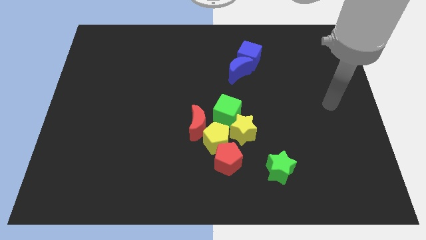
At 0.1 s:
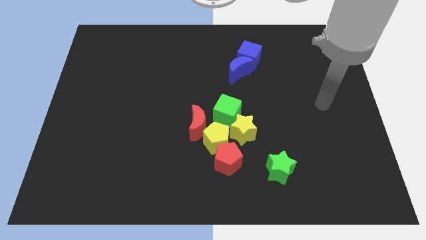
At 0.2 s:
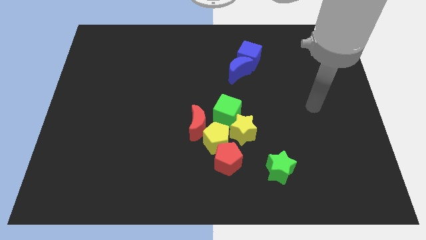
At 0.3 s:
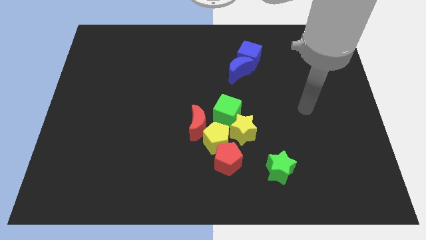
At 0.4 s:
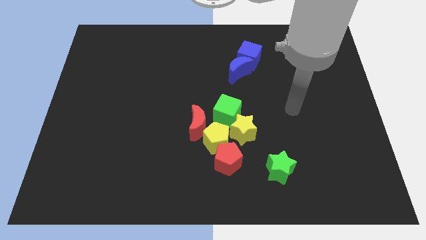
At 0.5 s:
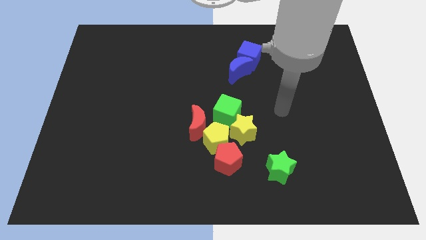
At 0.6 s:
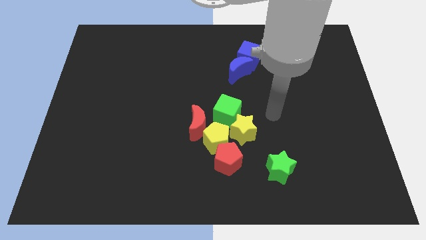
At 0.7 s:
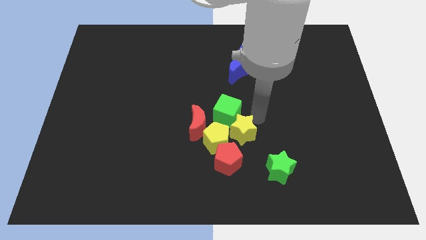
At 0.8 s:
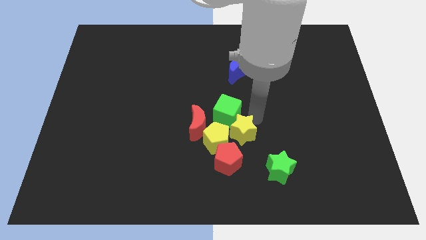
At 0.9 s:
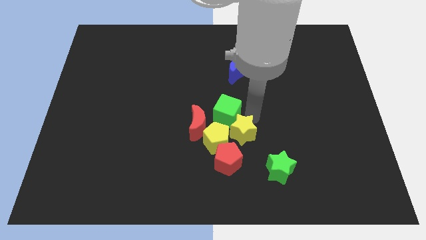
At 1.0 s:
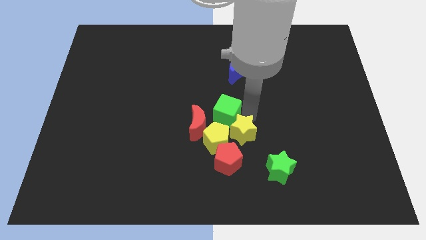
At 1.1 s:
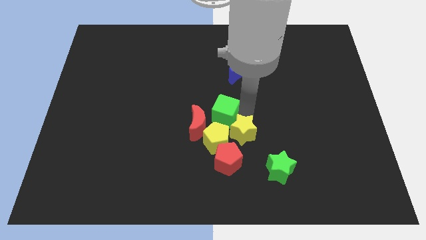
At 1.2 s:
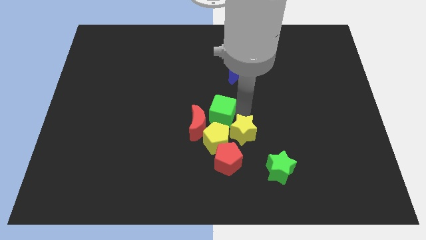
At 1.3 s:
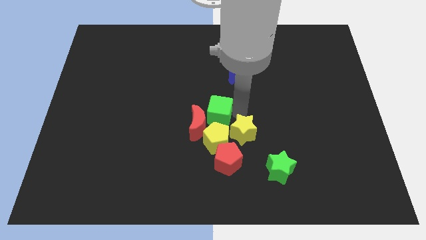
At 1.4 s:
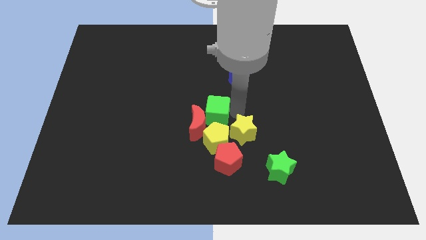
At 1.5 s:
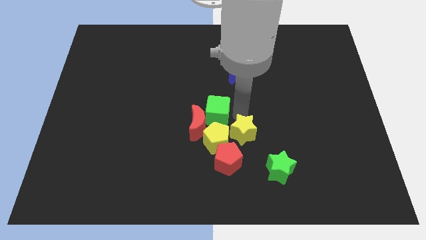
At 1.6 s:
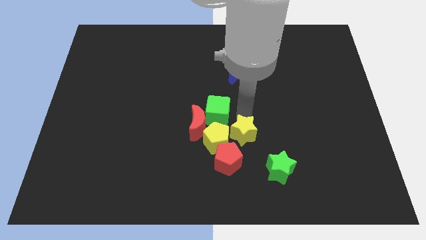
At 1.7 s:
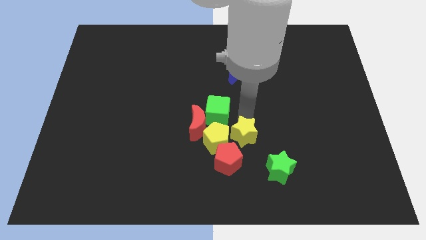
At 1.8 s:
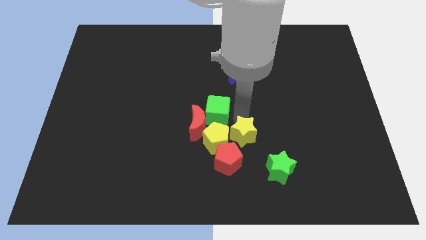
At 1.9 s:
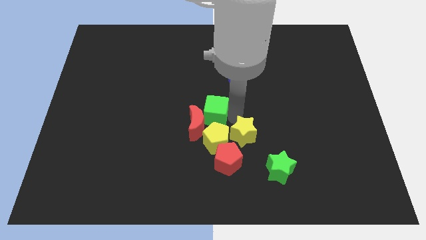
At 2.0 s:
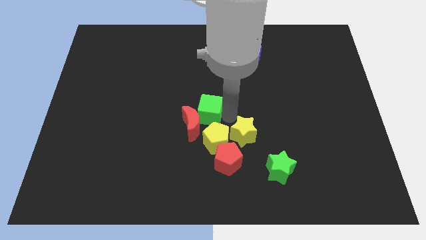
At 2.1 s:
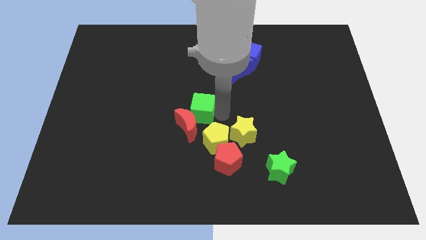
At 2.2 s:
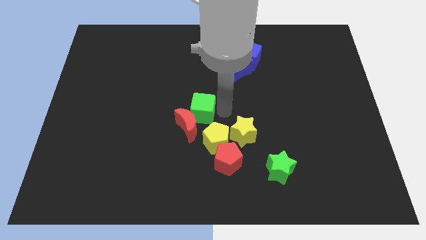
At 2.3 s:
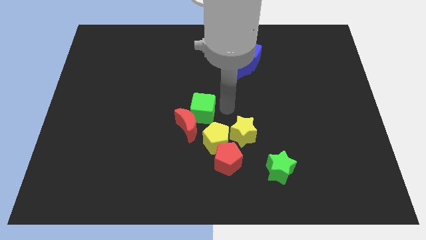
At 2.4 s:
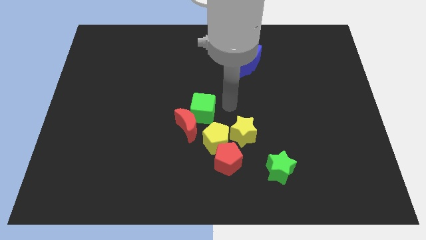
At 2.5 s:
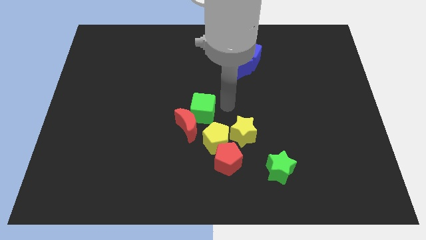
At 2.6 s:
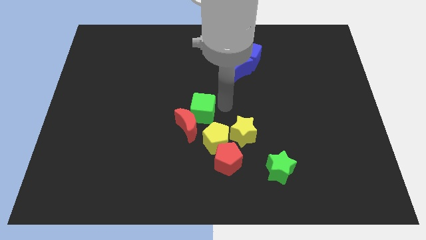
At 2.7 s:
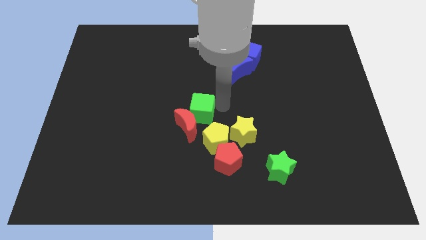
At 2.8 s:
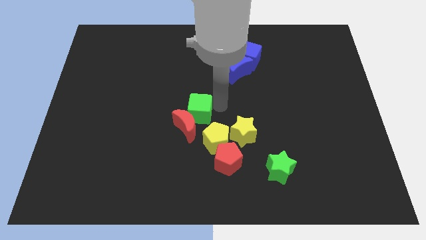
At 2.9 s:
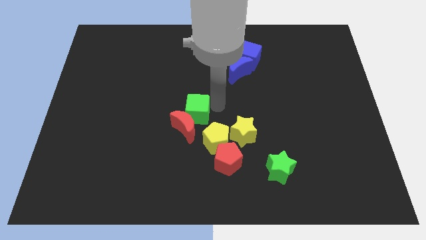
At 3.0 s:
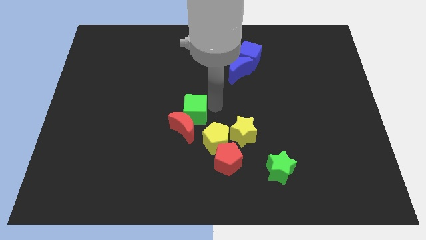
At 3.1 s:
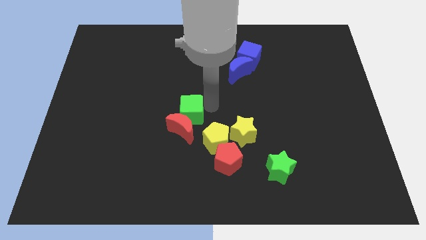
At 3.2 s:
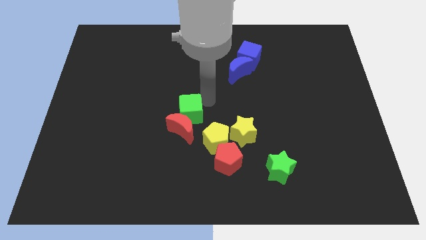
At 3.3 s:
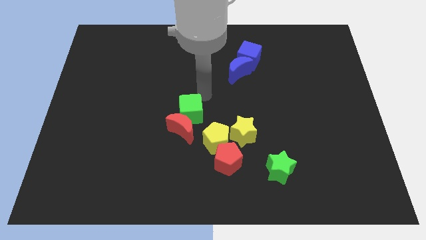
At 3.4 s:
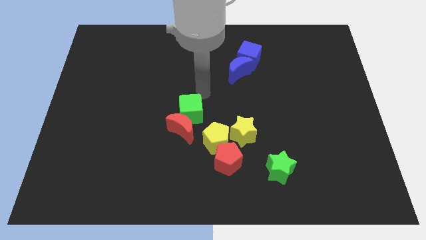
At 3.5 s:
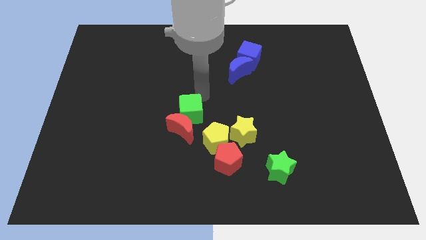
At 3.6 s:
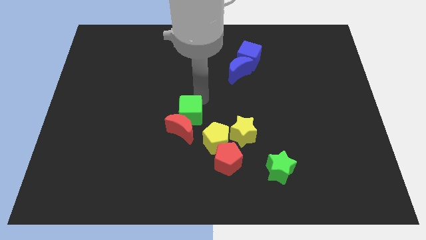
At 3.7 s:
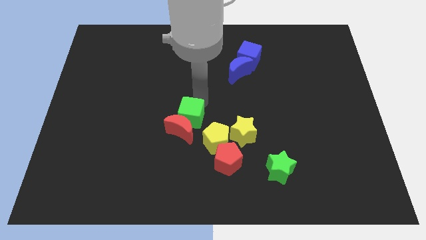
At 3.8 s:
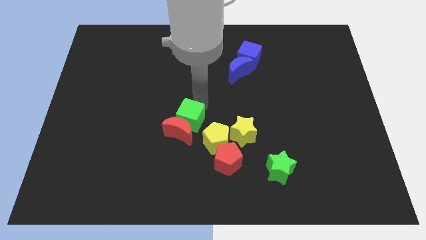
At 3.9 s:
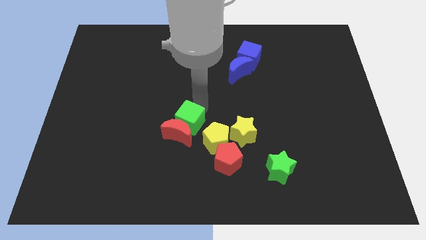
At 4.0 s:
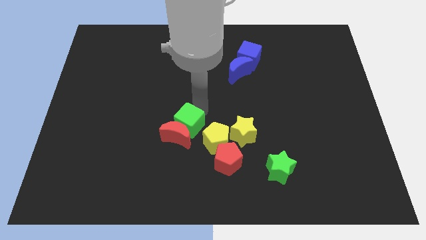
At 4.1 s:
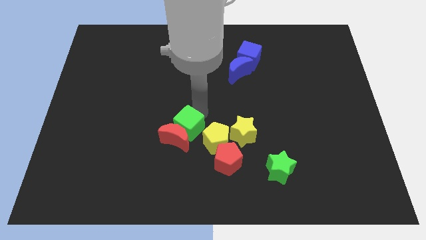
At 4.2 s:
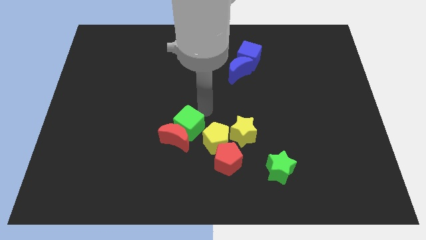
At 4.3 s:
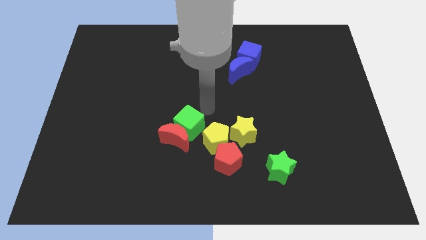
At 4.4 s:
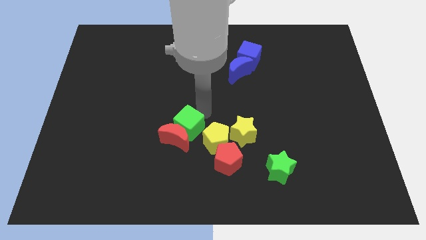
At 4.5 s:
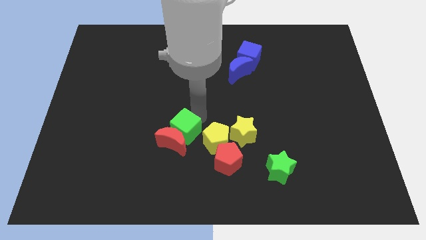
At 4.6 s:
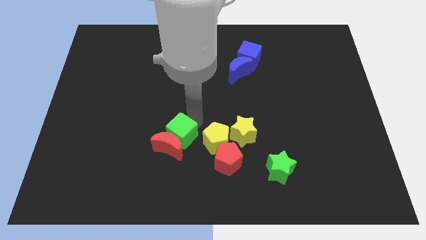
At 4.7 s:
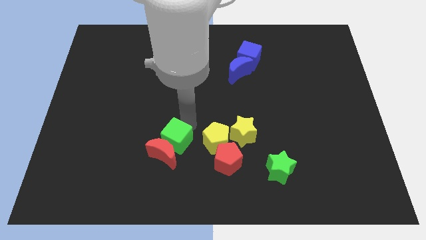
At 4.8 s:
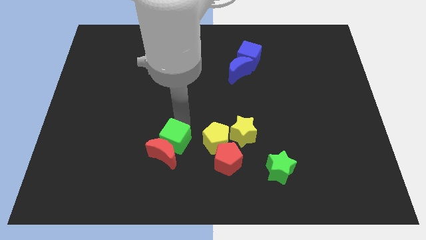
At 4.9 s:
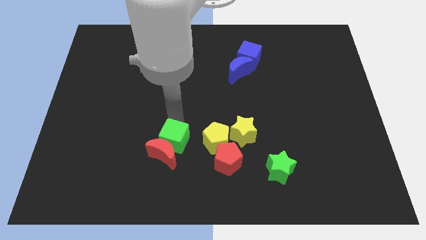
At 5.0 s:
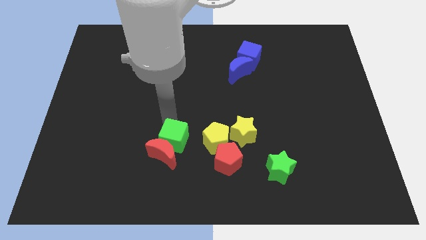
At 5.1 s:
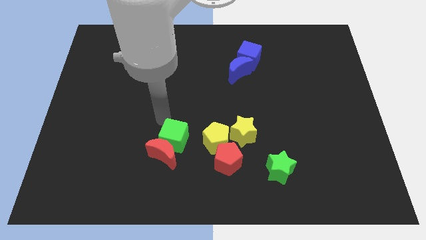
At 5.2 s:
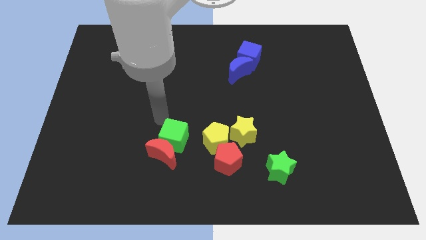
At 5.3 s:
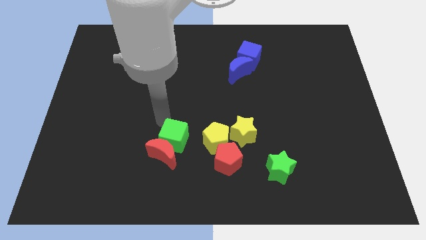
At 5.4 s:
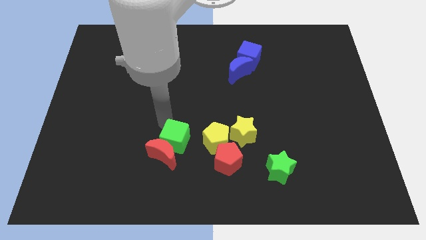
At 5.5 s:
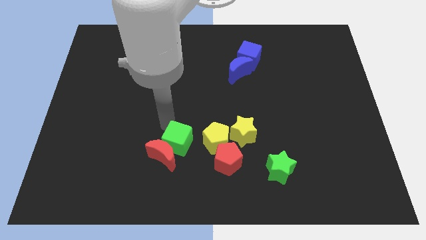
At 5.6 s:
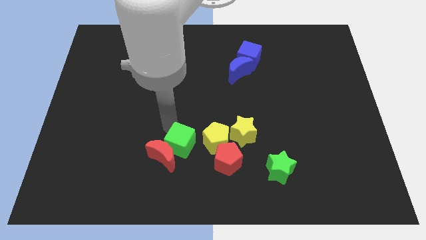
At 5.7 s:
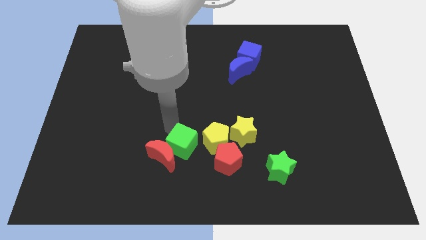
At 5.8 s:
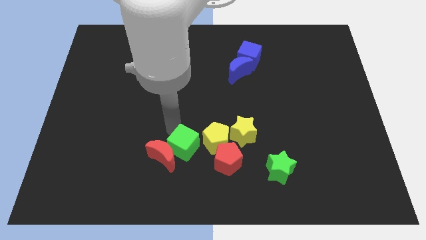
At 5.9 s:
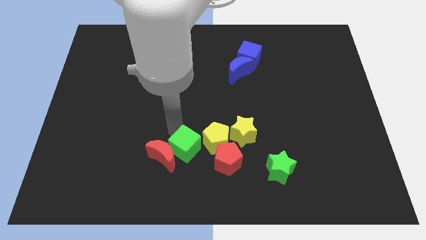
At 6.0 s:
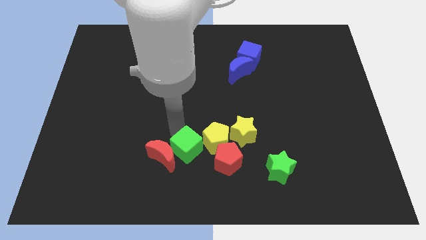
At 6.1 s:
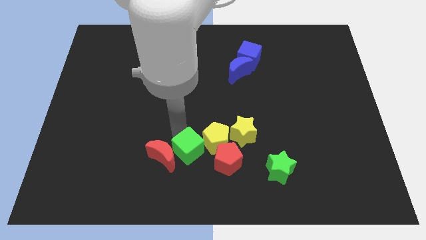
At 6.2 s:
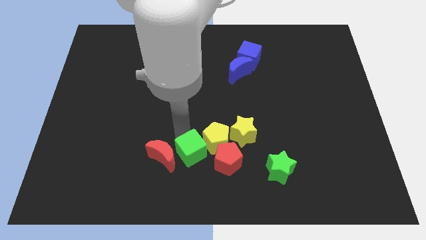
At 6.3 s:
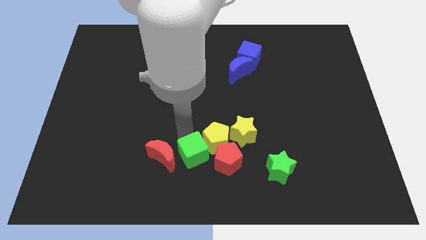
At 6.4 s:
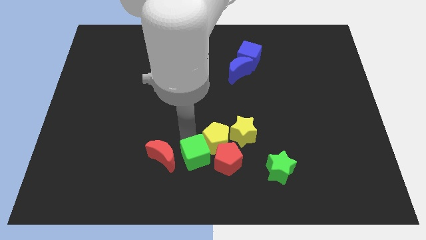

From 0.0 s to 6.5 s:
push the green cube to the bottom

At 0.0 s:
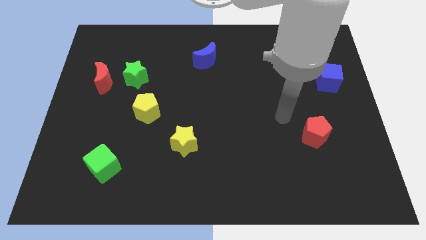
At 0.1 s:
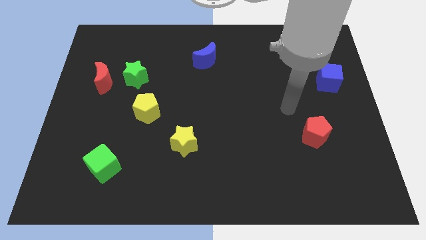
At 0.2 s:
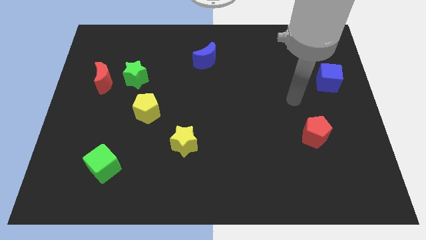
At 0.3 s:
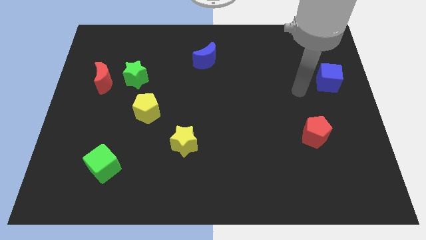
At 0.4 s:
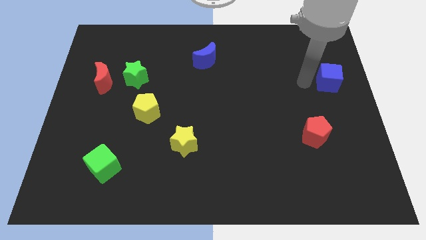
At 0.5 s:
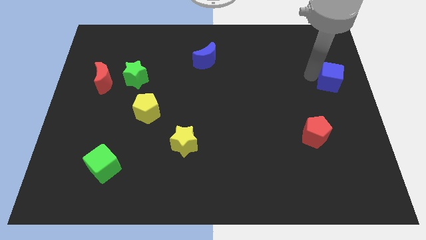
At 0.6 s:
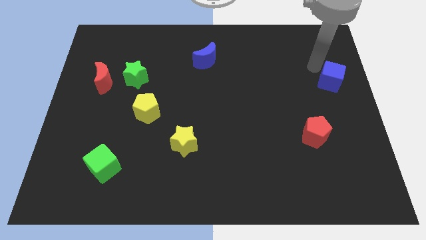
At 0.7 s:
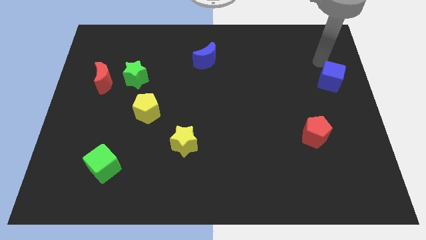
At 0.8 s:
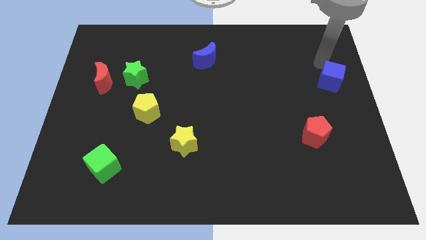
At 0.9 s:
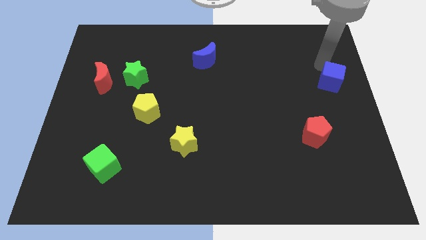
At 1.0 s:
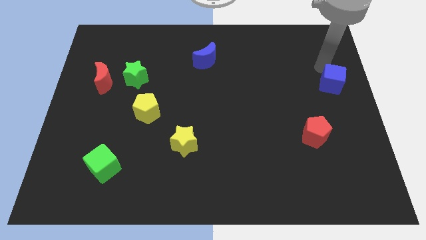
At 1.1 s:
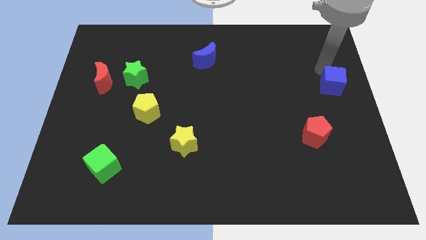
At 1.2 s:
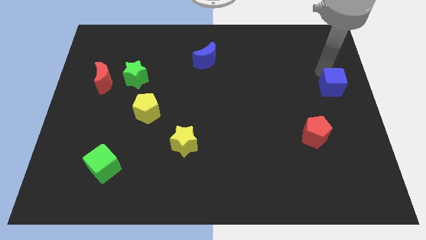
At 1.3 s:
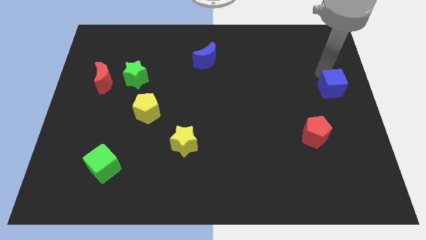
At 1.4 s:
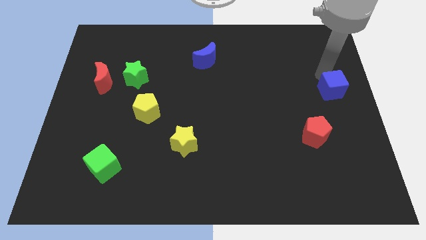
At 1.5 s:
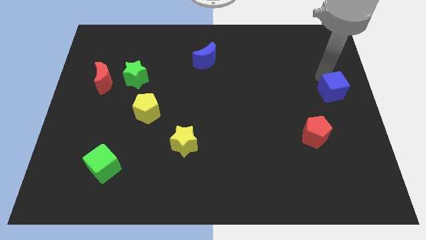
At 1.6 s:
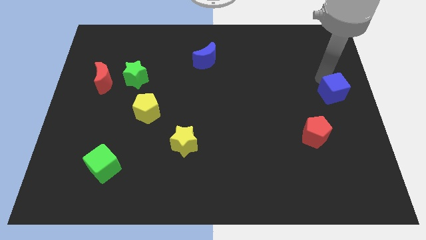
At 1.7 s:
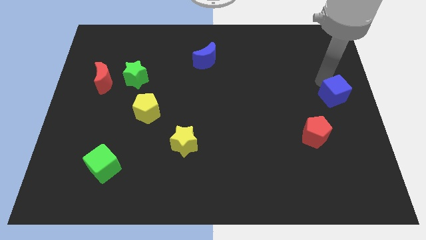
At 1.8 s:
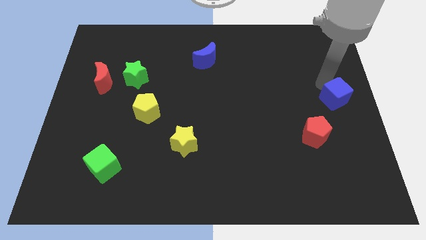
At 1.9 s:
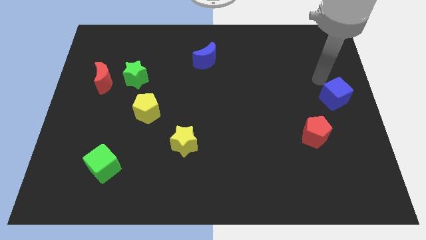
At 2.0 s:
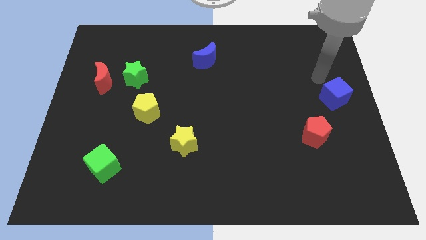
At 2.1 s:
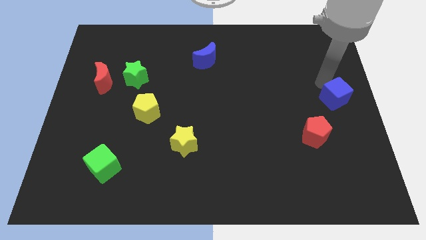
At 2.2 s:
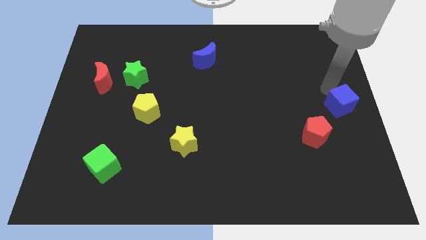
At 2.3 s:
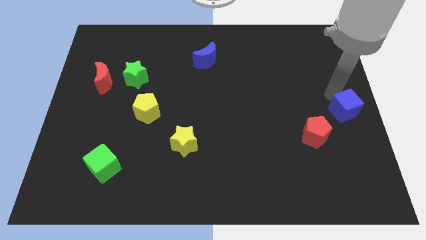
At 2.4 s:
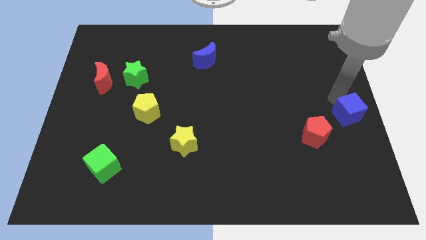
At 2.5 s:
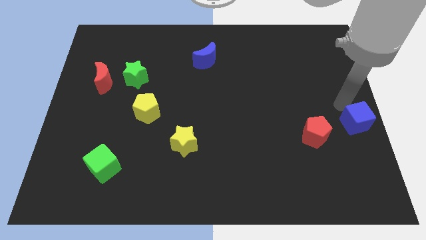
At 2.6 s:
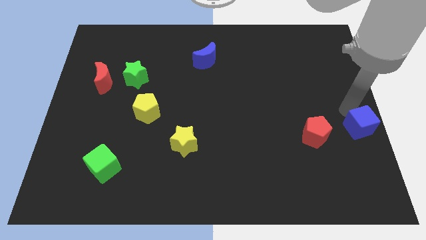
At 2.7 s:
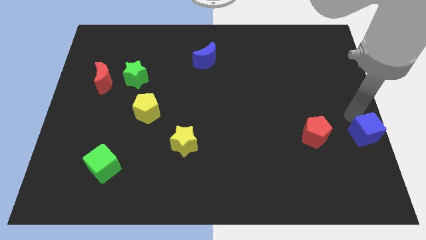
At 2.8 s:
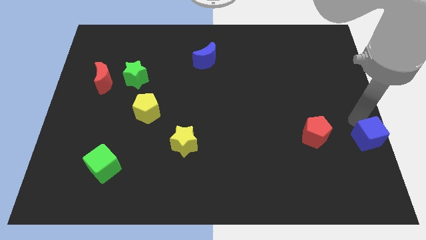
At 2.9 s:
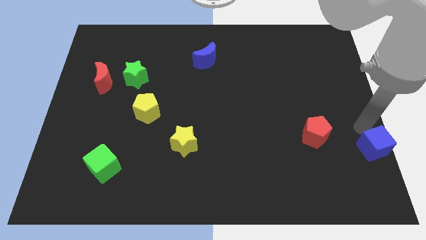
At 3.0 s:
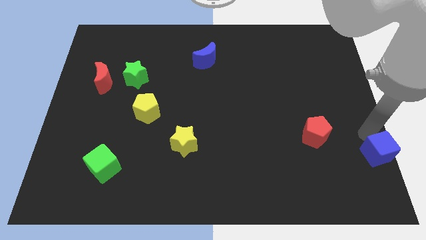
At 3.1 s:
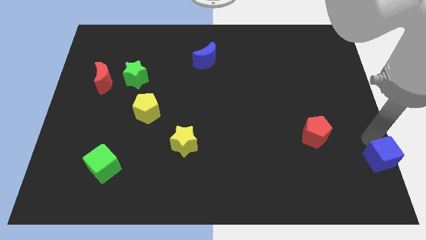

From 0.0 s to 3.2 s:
push the blue cube to the lower right corner
